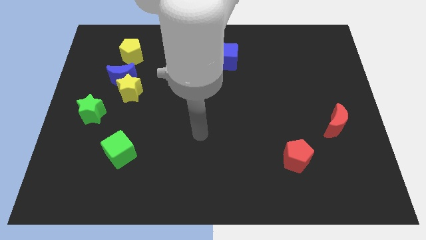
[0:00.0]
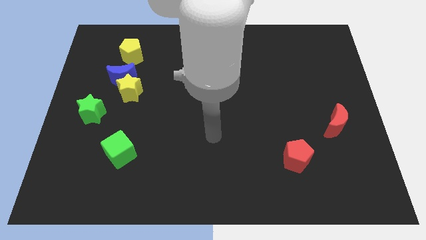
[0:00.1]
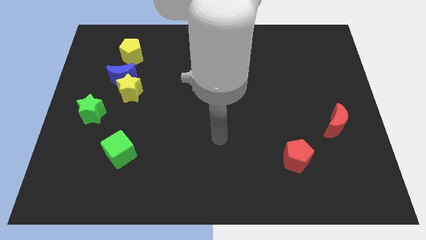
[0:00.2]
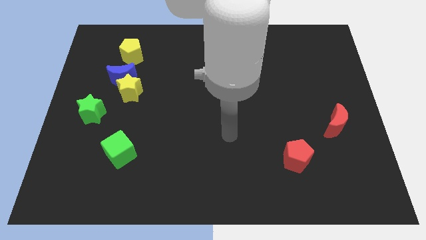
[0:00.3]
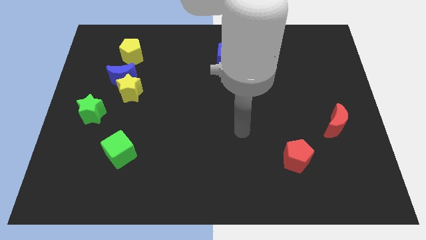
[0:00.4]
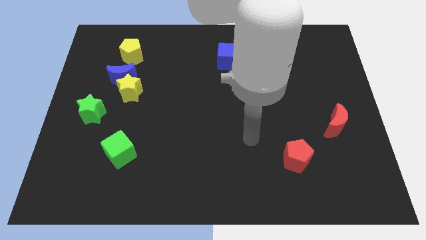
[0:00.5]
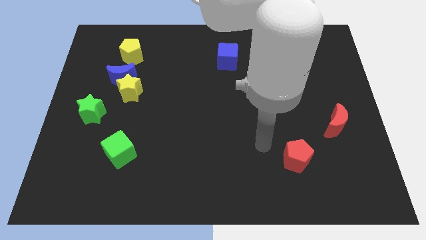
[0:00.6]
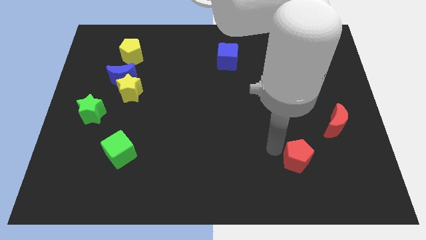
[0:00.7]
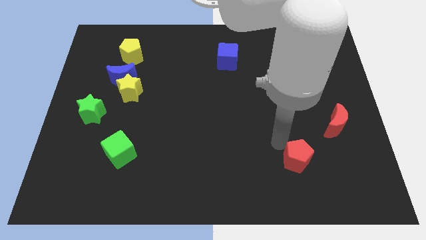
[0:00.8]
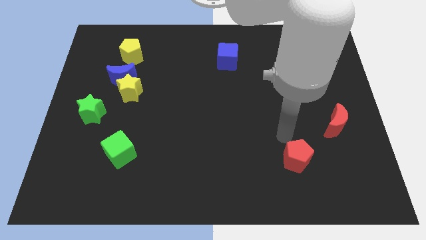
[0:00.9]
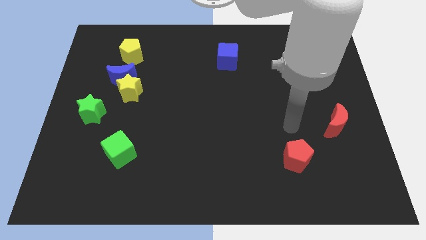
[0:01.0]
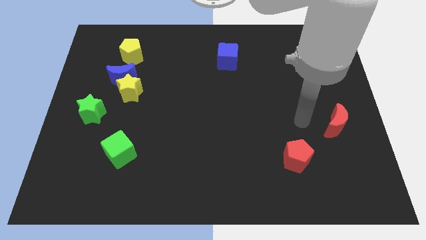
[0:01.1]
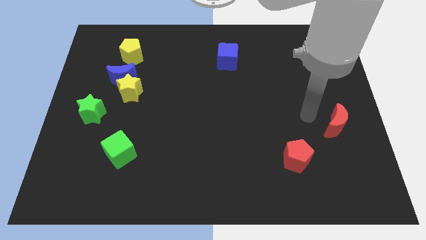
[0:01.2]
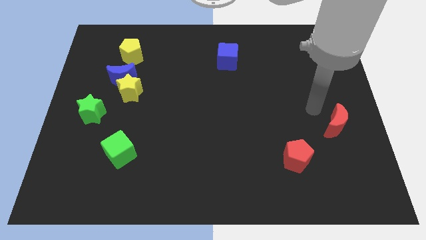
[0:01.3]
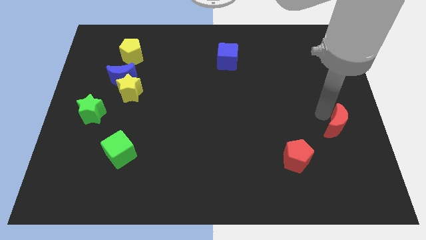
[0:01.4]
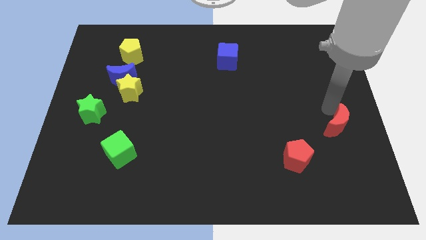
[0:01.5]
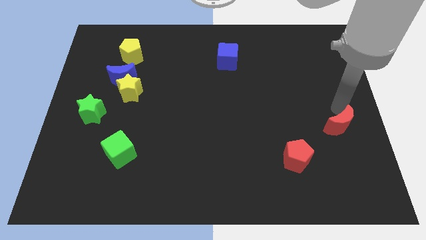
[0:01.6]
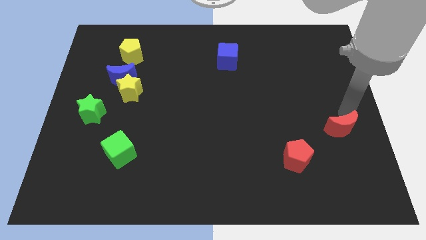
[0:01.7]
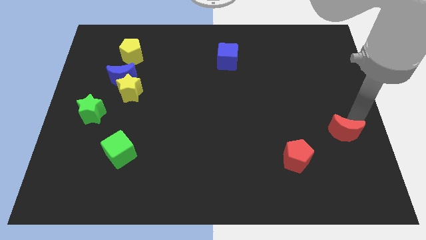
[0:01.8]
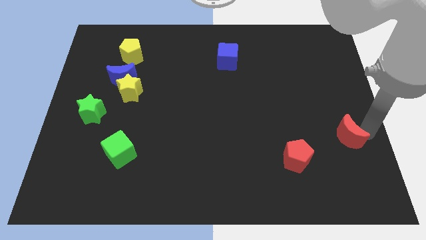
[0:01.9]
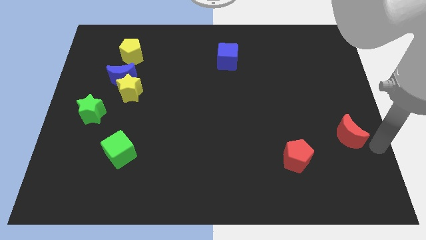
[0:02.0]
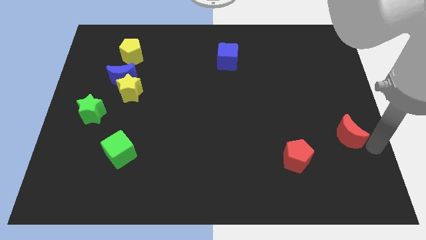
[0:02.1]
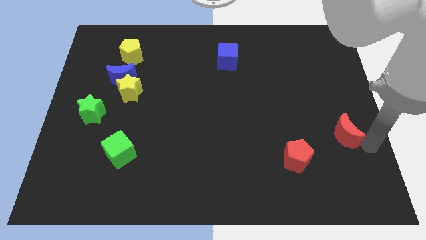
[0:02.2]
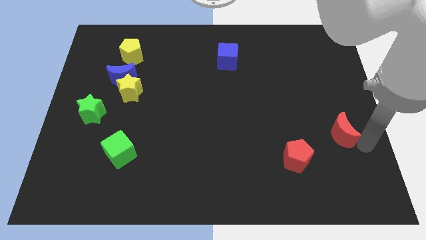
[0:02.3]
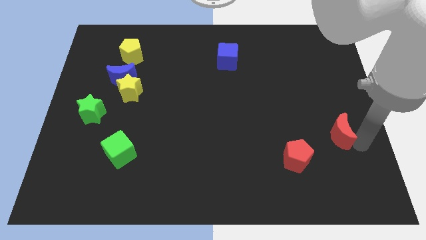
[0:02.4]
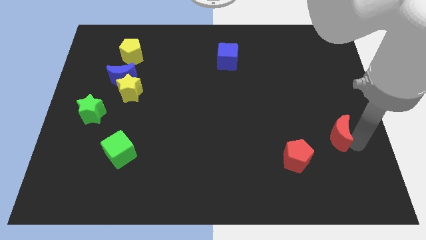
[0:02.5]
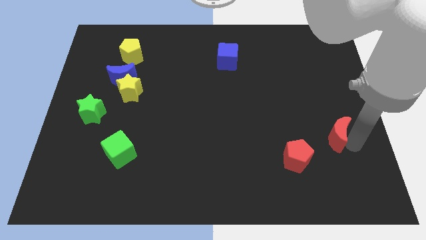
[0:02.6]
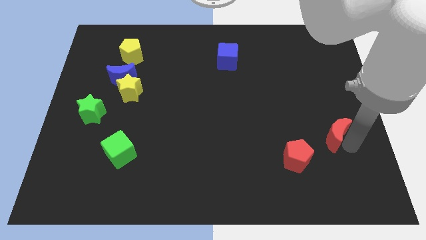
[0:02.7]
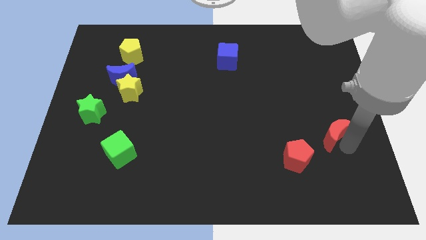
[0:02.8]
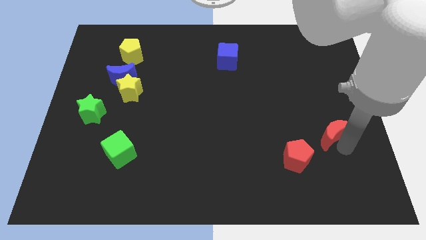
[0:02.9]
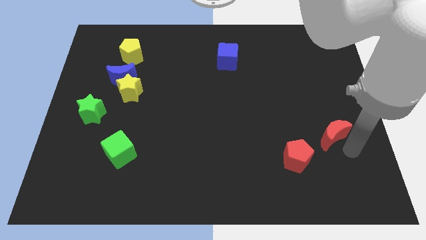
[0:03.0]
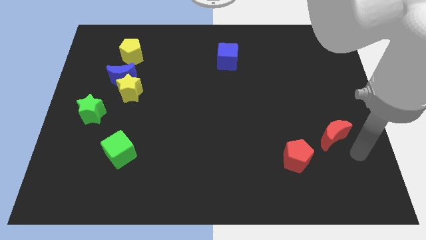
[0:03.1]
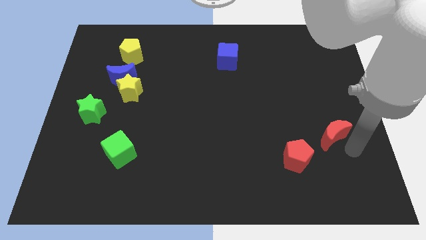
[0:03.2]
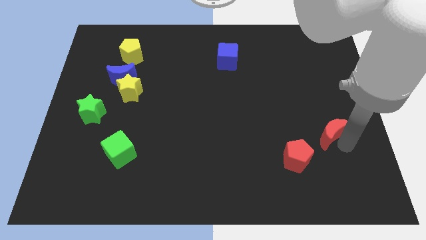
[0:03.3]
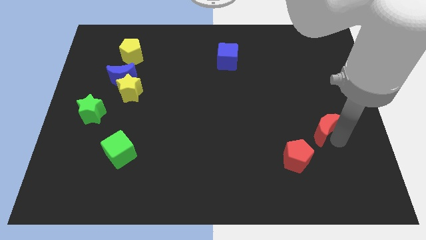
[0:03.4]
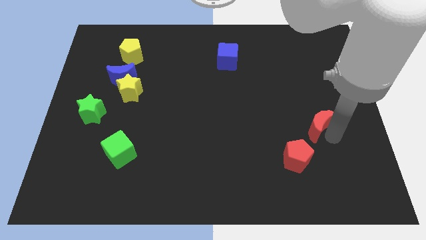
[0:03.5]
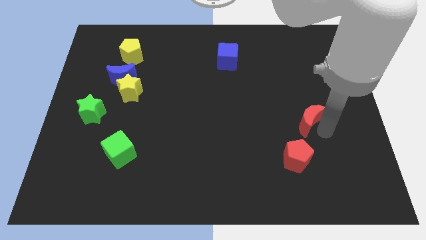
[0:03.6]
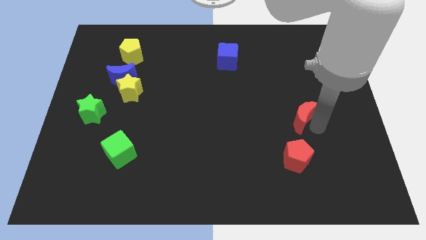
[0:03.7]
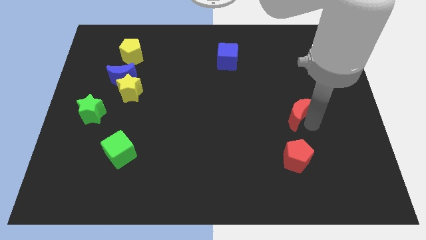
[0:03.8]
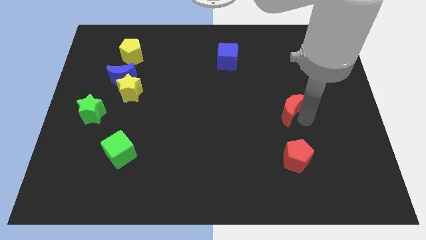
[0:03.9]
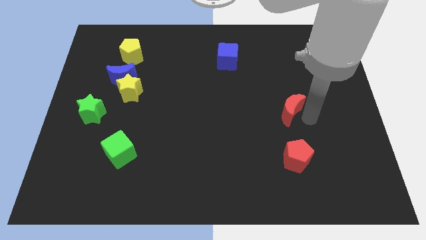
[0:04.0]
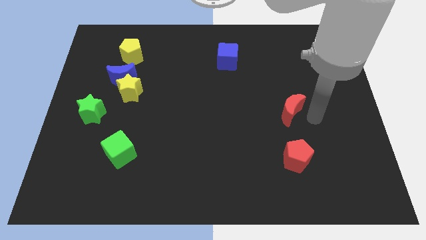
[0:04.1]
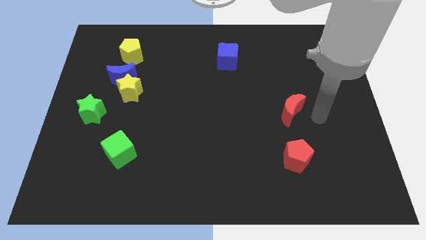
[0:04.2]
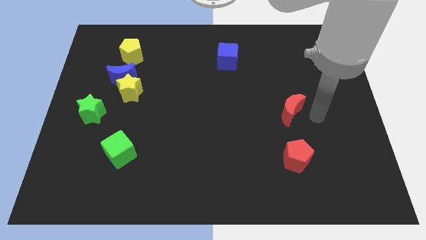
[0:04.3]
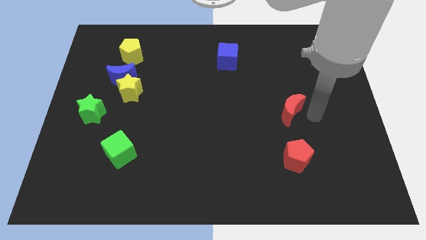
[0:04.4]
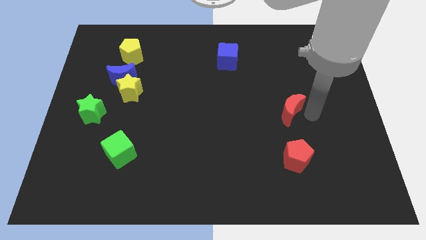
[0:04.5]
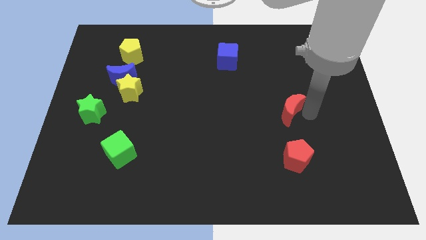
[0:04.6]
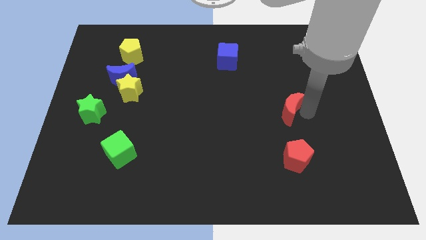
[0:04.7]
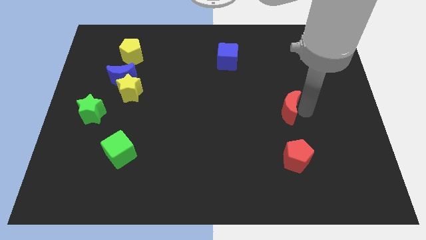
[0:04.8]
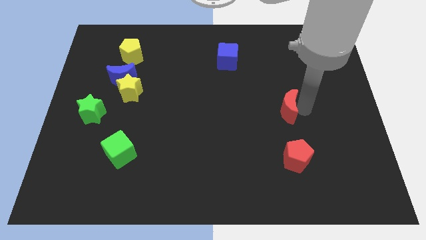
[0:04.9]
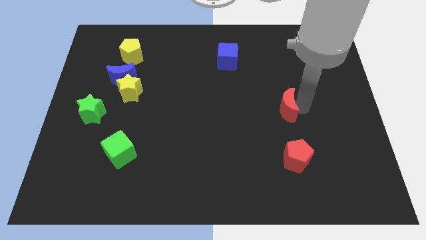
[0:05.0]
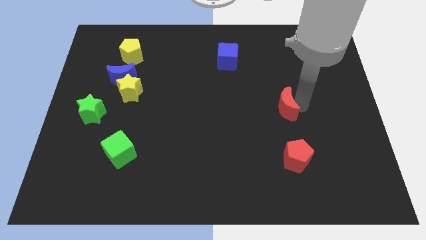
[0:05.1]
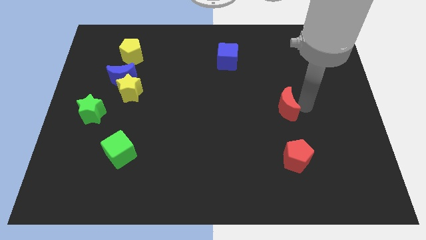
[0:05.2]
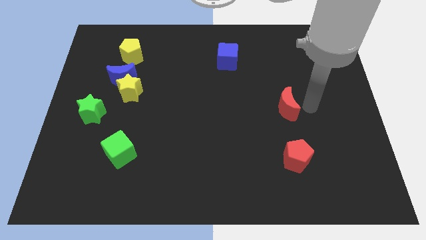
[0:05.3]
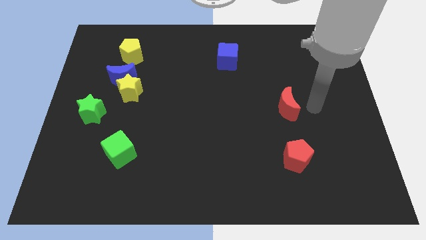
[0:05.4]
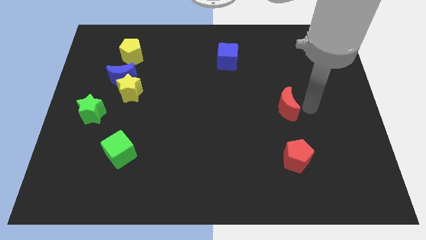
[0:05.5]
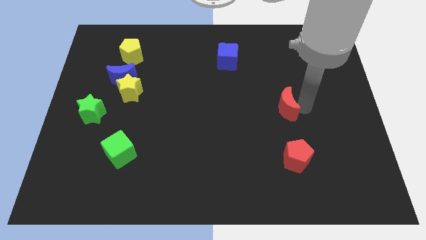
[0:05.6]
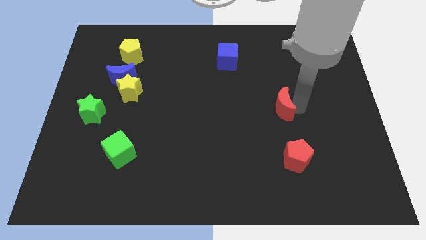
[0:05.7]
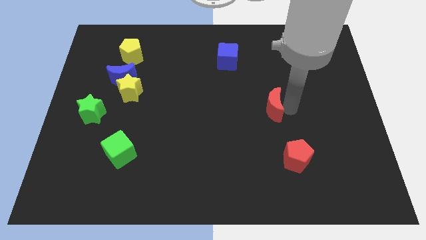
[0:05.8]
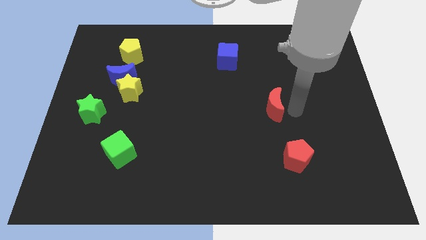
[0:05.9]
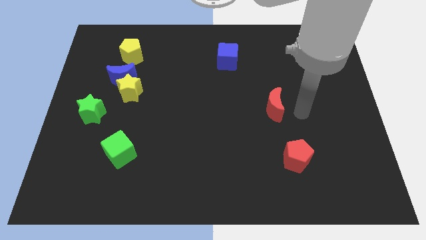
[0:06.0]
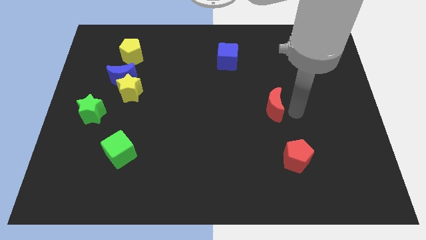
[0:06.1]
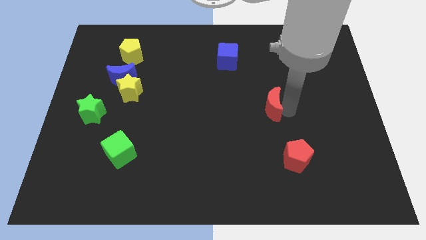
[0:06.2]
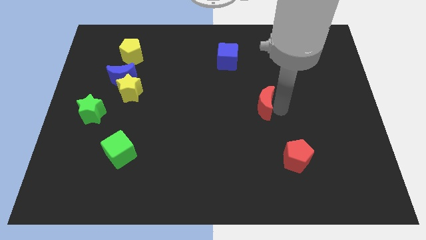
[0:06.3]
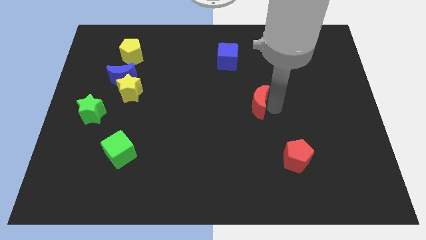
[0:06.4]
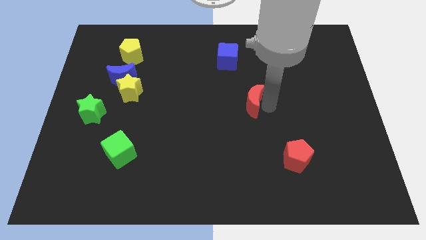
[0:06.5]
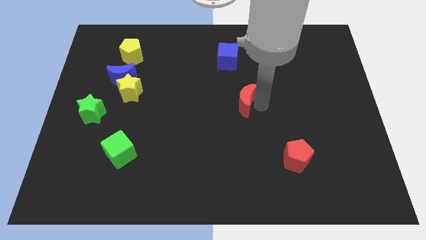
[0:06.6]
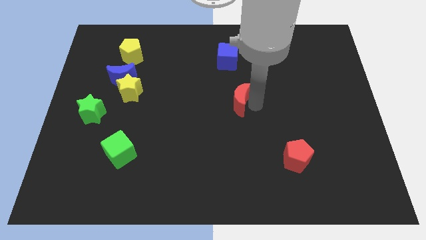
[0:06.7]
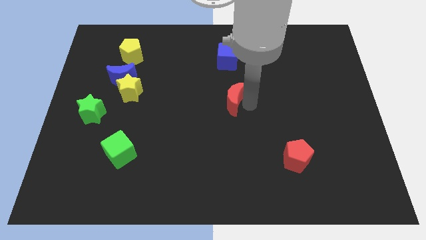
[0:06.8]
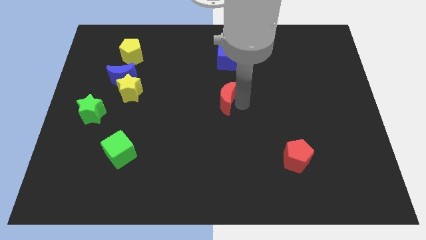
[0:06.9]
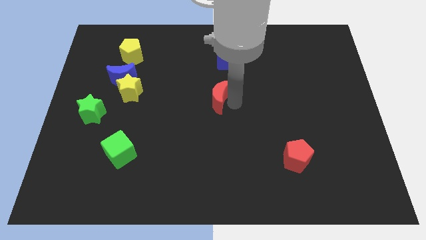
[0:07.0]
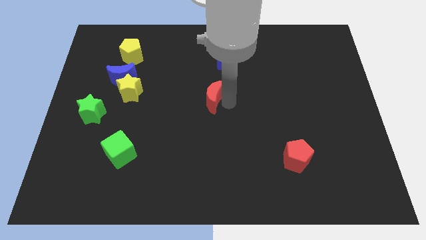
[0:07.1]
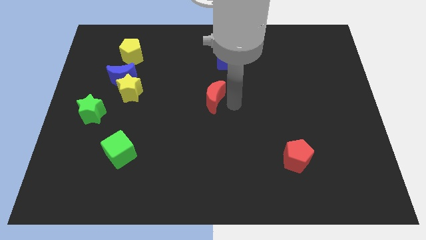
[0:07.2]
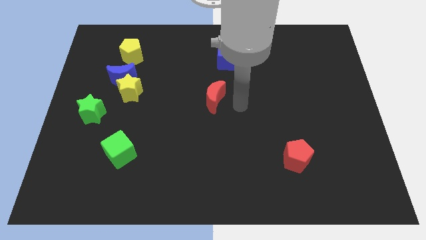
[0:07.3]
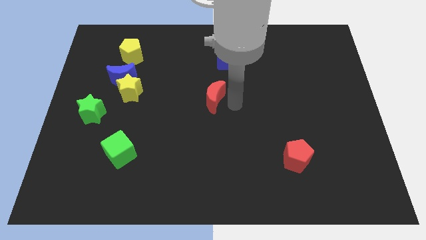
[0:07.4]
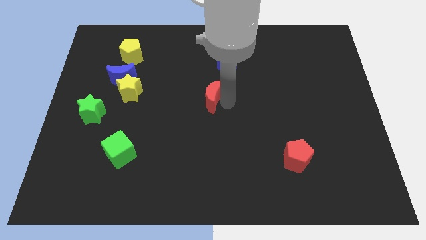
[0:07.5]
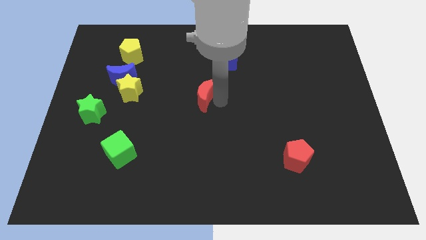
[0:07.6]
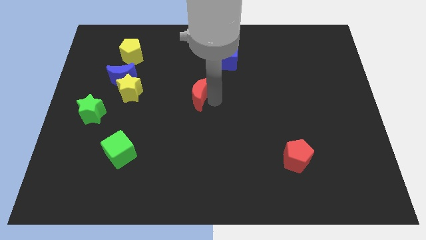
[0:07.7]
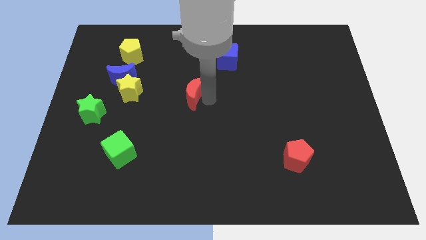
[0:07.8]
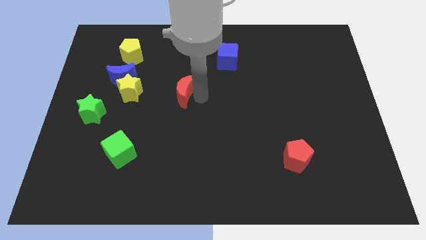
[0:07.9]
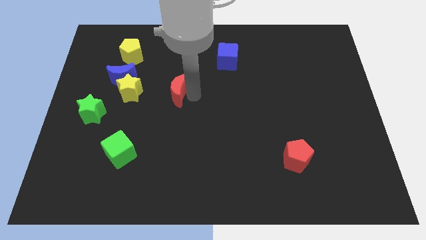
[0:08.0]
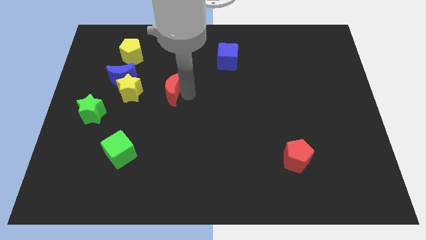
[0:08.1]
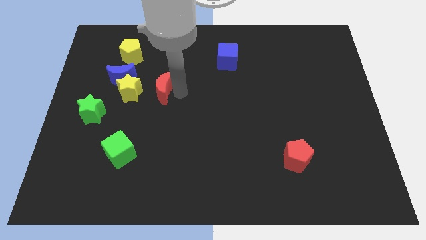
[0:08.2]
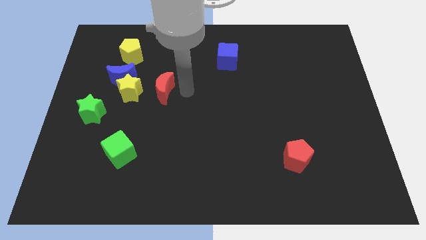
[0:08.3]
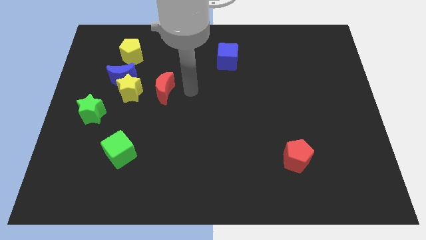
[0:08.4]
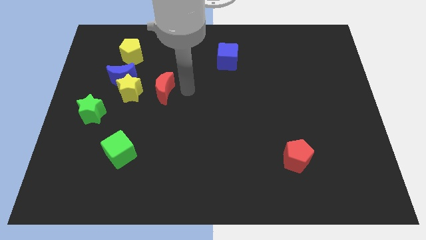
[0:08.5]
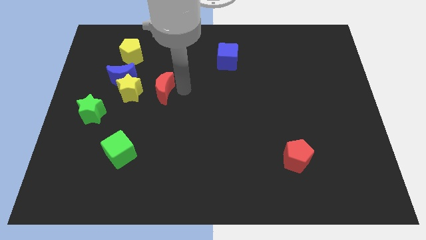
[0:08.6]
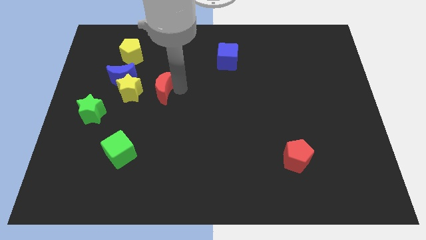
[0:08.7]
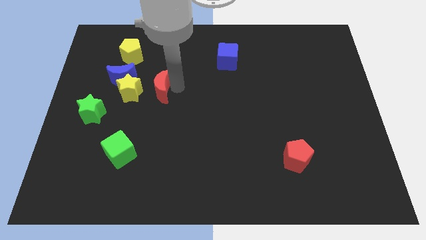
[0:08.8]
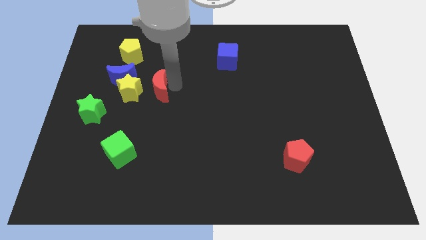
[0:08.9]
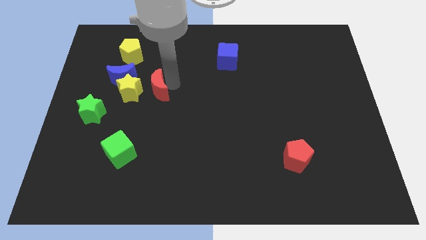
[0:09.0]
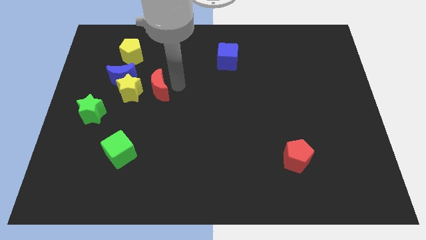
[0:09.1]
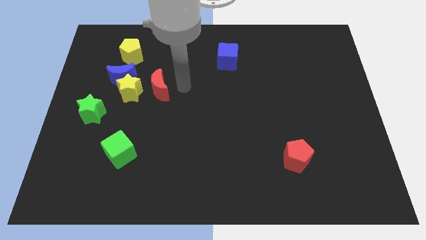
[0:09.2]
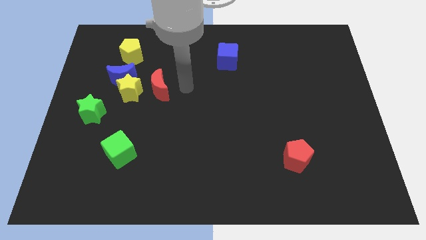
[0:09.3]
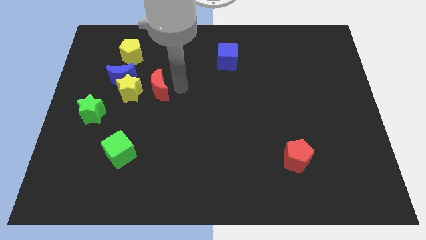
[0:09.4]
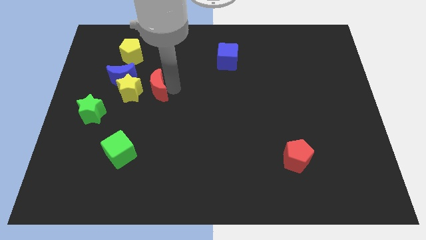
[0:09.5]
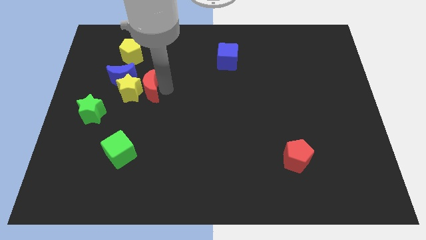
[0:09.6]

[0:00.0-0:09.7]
move the red moon towards the yellow star
